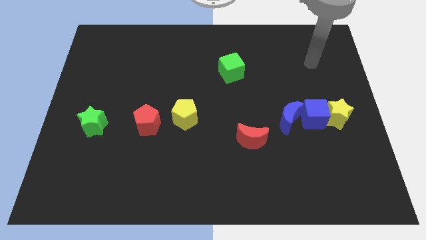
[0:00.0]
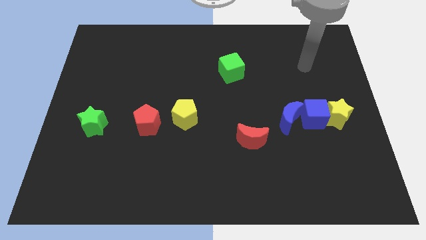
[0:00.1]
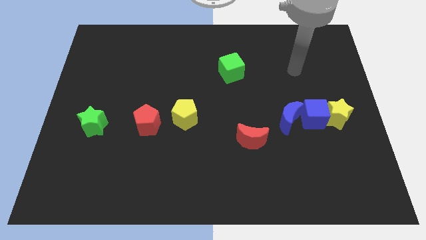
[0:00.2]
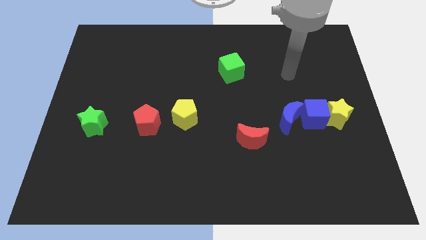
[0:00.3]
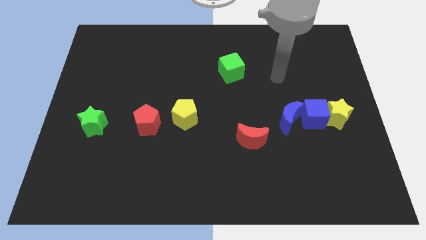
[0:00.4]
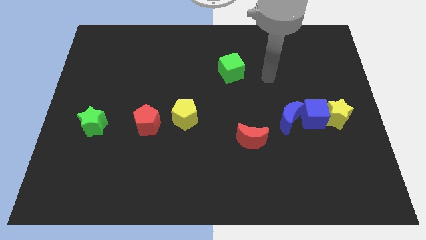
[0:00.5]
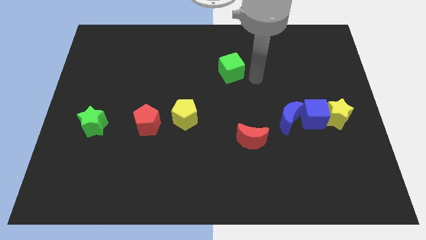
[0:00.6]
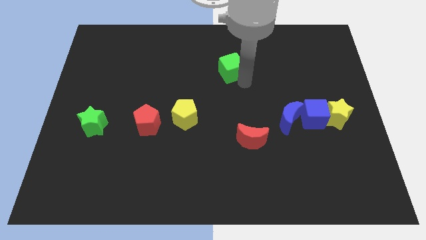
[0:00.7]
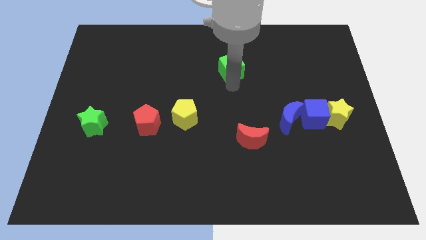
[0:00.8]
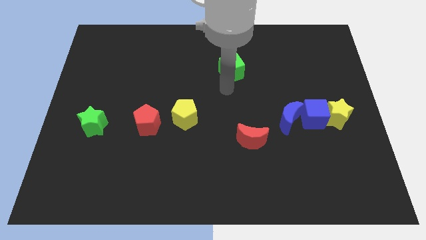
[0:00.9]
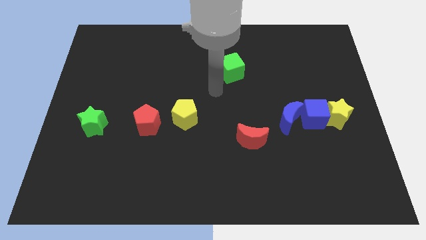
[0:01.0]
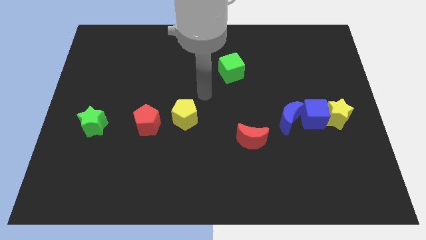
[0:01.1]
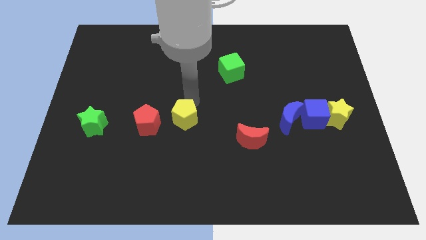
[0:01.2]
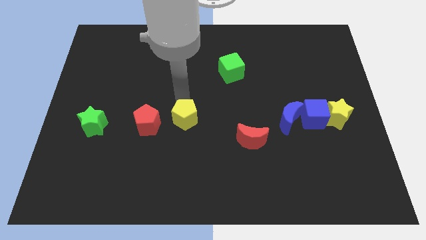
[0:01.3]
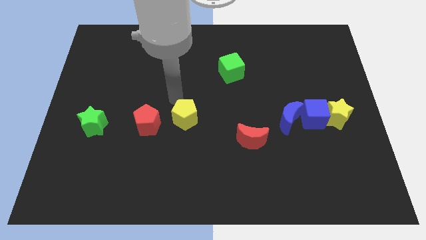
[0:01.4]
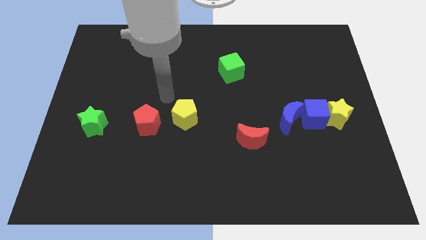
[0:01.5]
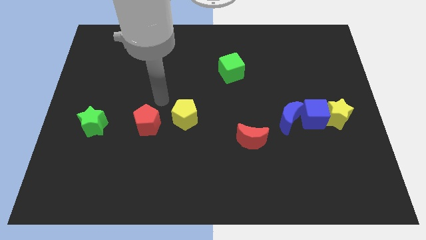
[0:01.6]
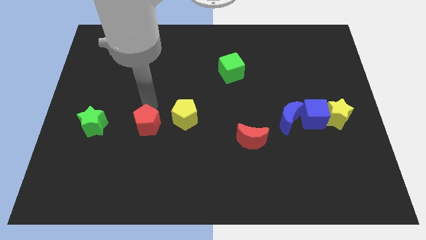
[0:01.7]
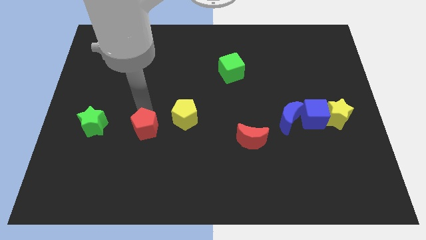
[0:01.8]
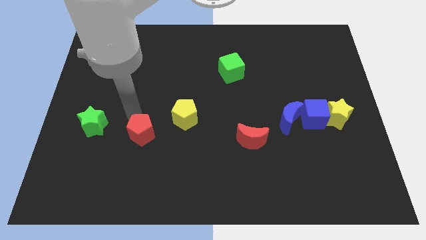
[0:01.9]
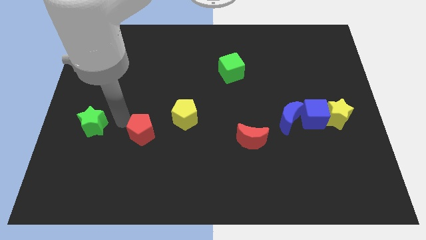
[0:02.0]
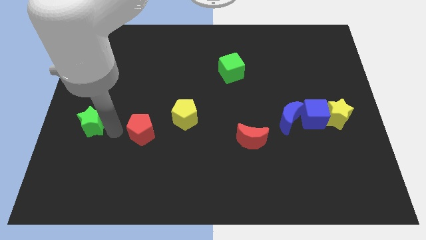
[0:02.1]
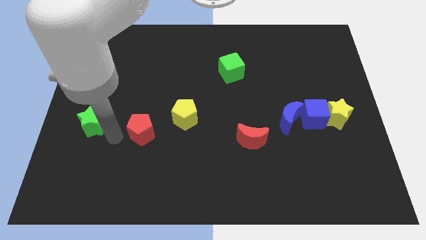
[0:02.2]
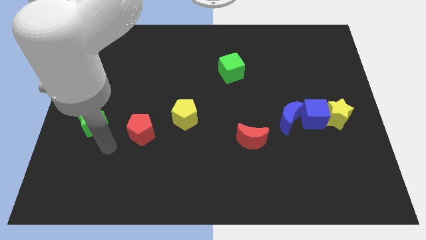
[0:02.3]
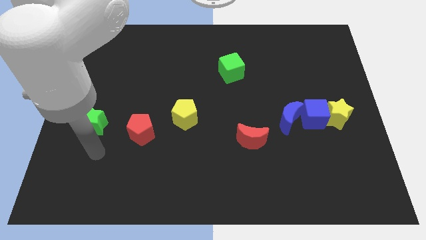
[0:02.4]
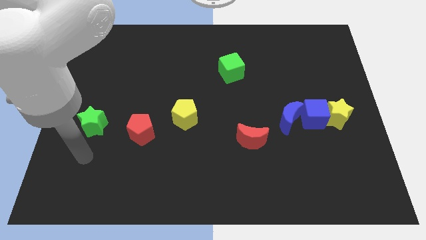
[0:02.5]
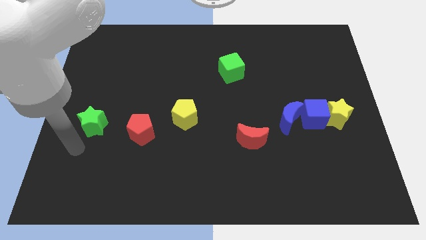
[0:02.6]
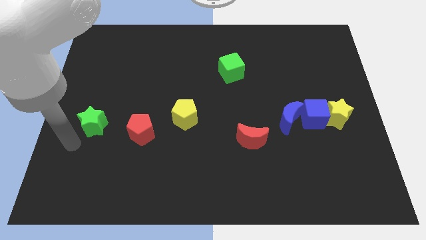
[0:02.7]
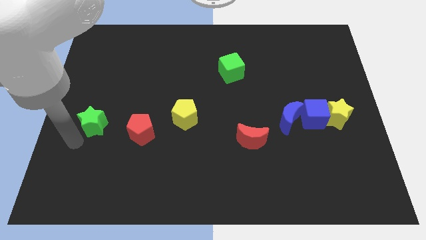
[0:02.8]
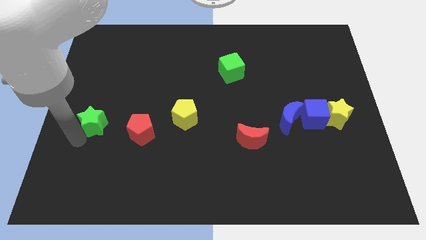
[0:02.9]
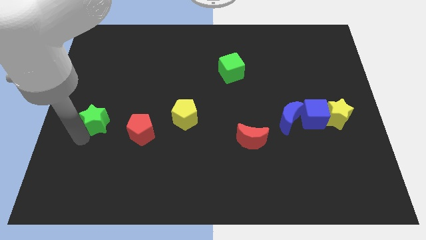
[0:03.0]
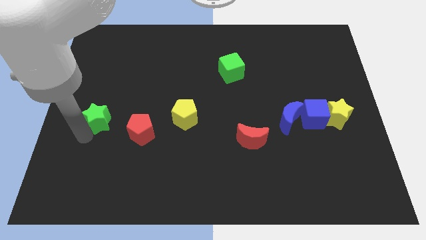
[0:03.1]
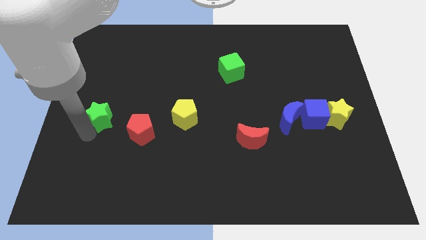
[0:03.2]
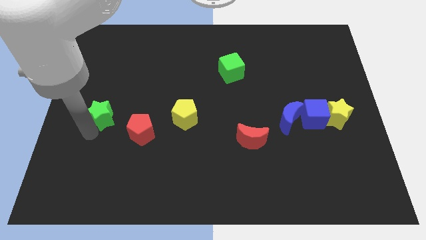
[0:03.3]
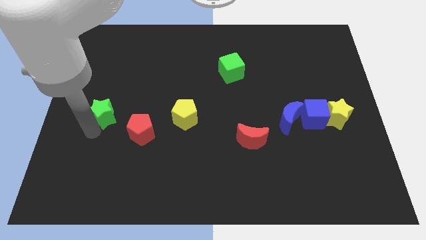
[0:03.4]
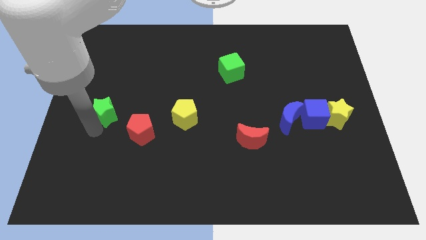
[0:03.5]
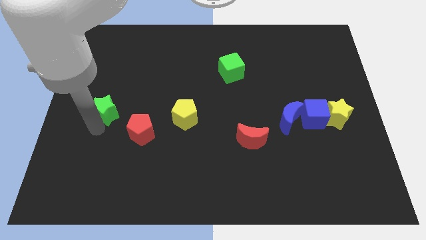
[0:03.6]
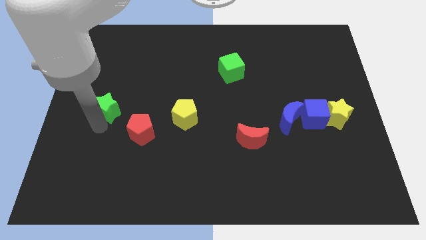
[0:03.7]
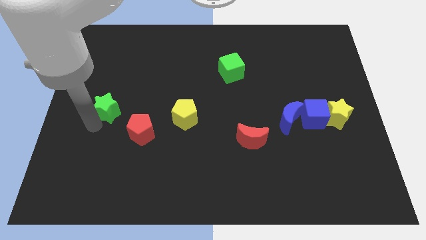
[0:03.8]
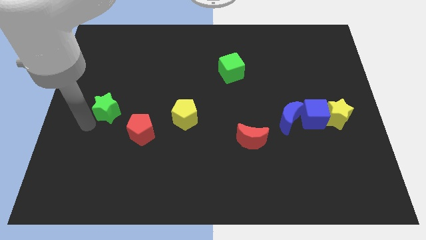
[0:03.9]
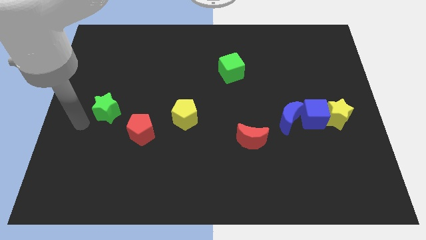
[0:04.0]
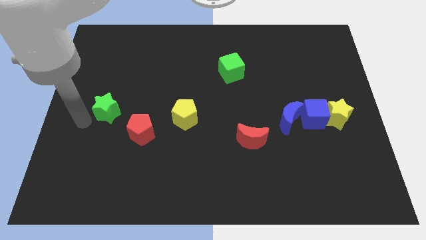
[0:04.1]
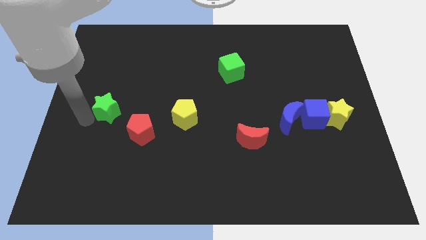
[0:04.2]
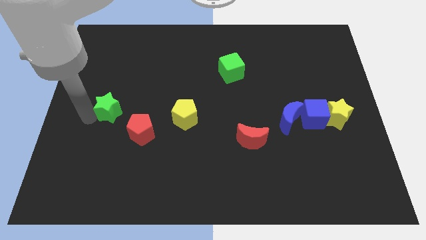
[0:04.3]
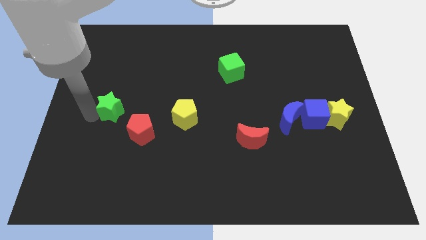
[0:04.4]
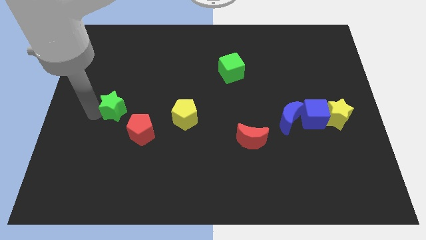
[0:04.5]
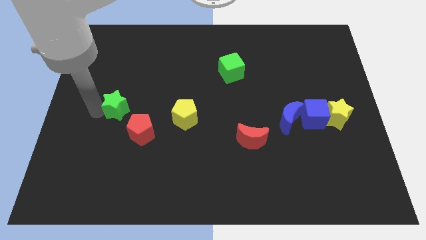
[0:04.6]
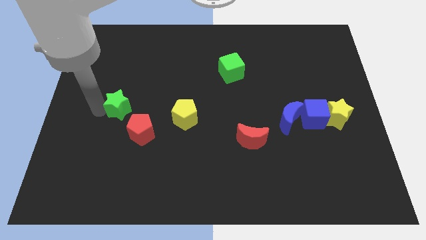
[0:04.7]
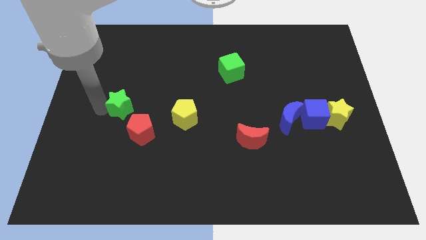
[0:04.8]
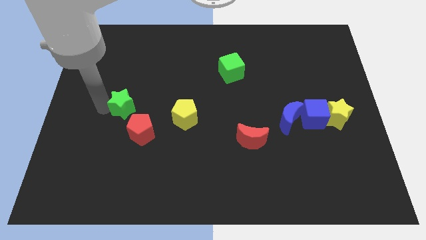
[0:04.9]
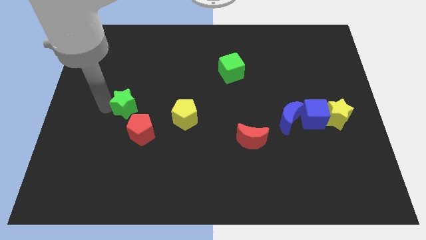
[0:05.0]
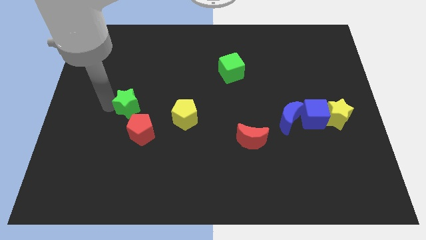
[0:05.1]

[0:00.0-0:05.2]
slide the green star above the red pentagon

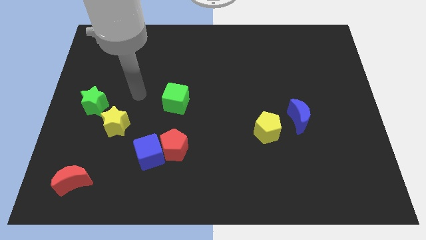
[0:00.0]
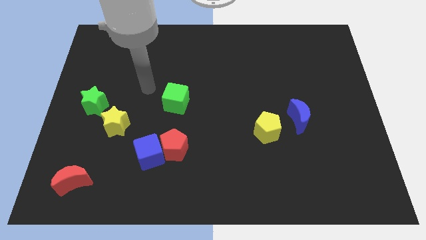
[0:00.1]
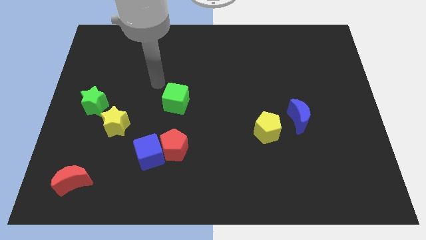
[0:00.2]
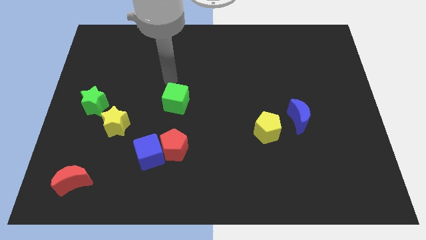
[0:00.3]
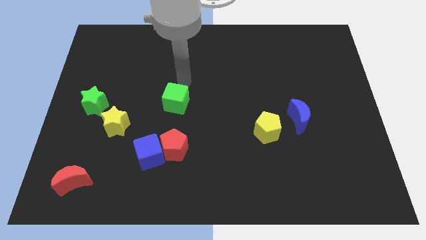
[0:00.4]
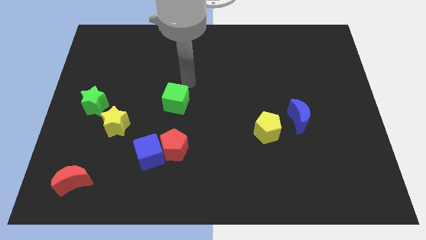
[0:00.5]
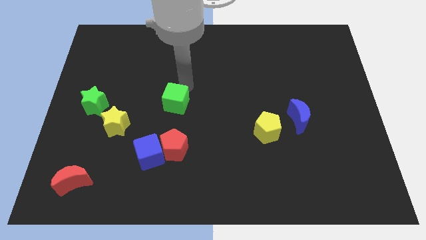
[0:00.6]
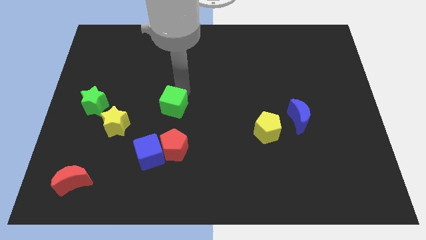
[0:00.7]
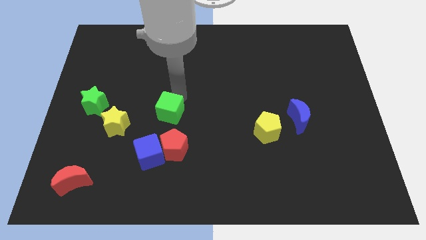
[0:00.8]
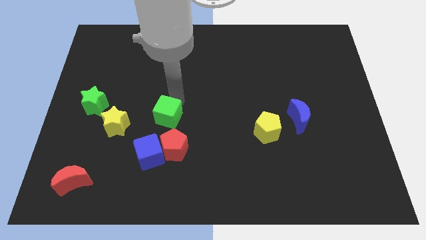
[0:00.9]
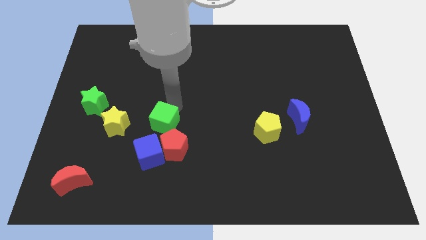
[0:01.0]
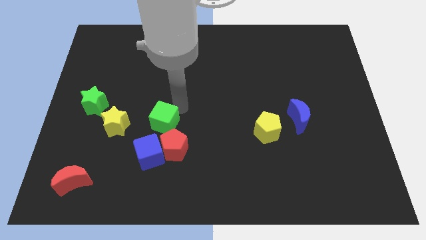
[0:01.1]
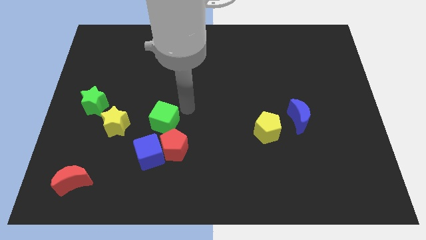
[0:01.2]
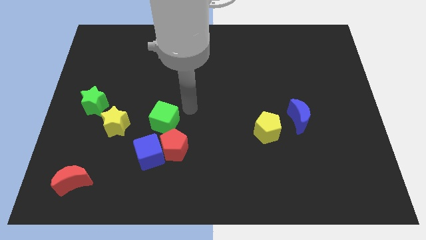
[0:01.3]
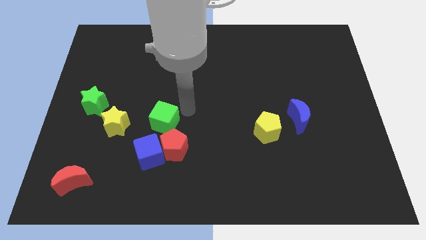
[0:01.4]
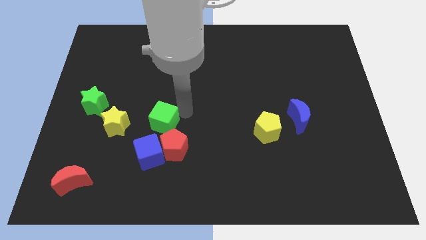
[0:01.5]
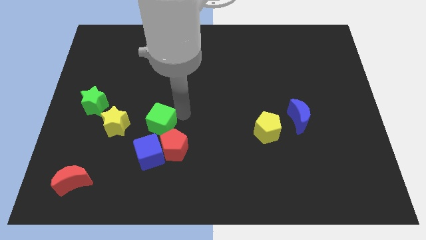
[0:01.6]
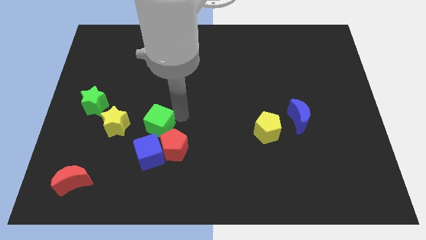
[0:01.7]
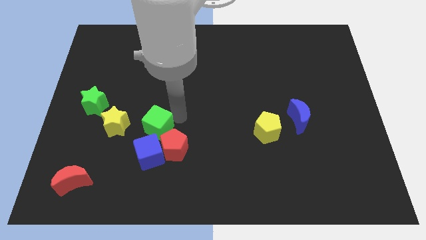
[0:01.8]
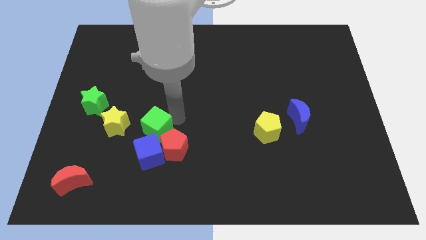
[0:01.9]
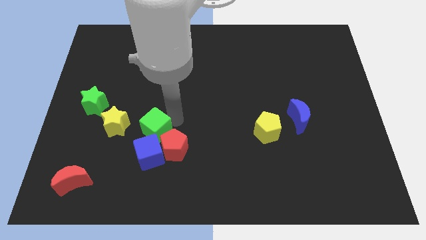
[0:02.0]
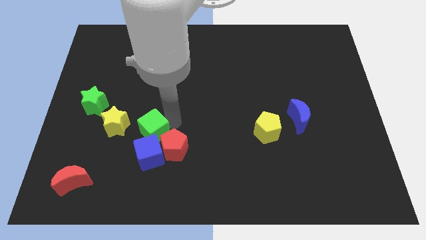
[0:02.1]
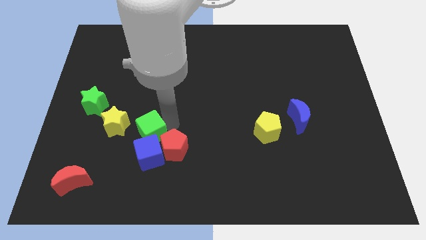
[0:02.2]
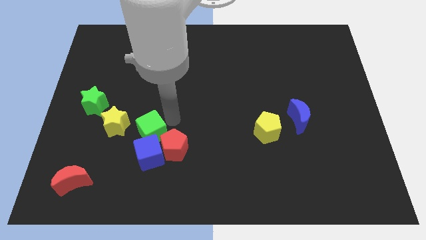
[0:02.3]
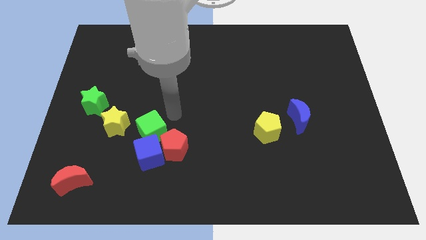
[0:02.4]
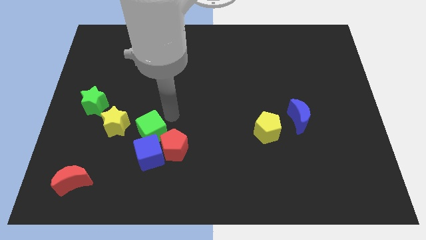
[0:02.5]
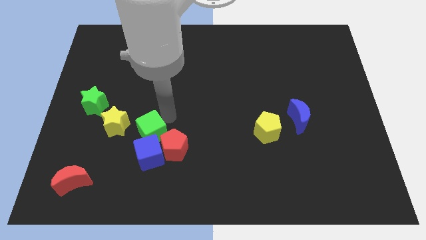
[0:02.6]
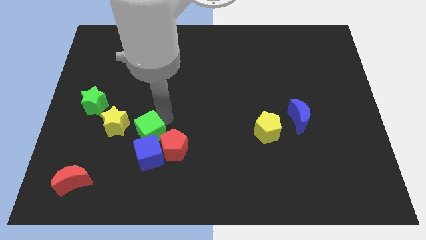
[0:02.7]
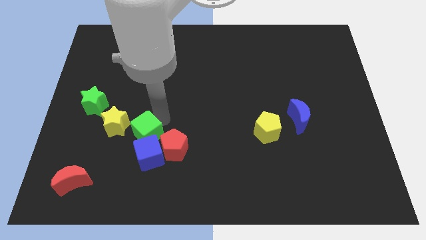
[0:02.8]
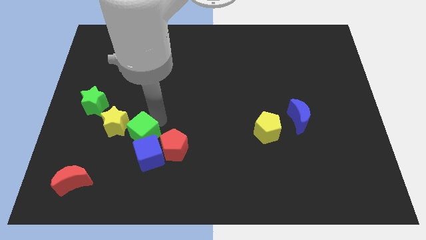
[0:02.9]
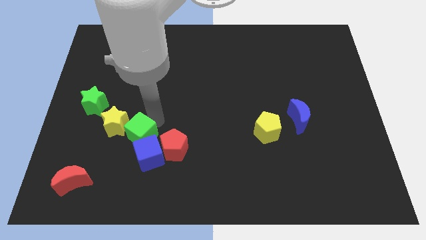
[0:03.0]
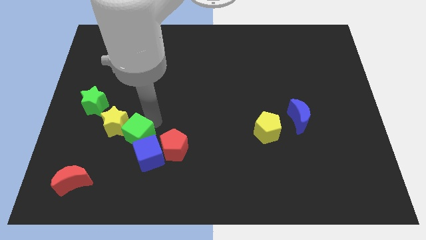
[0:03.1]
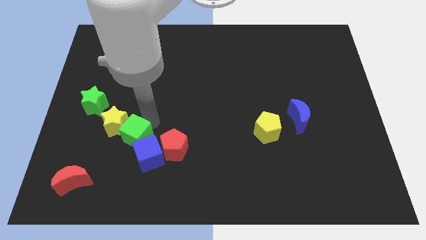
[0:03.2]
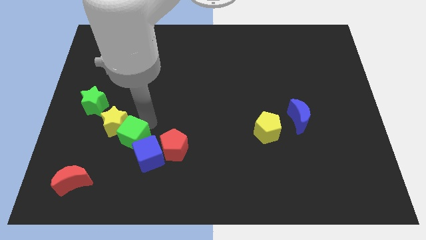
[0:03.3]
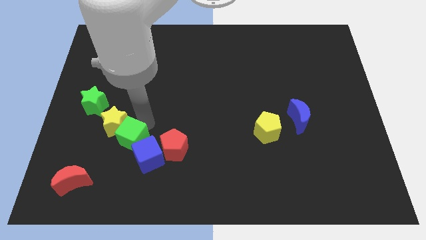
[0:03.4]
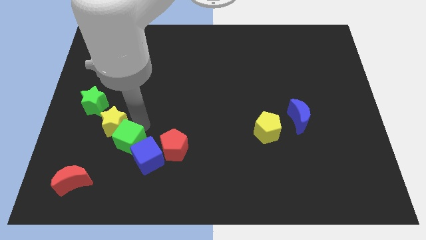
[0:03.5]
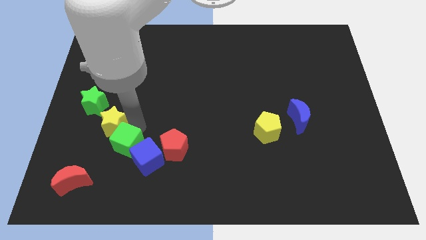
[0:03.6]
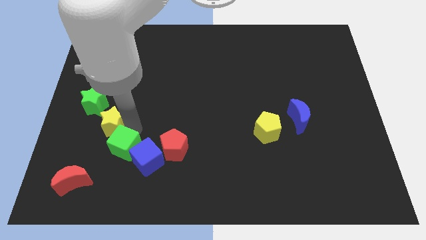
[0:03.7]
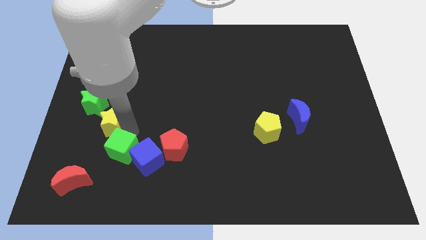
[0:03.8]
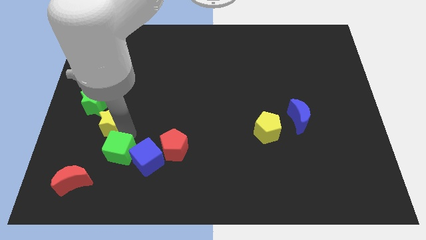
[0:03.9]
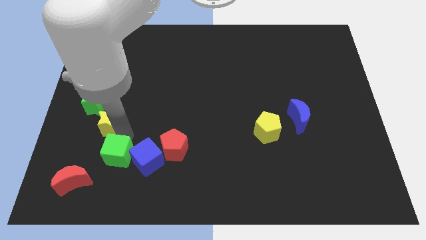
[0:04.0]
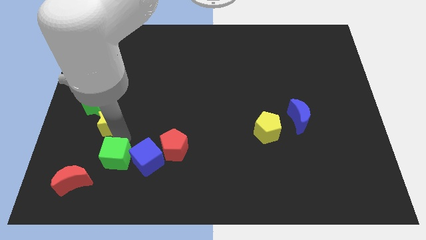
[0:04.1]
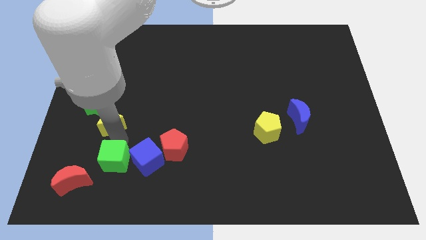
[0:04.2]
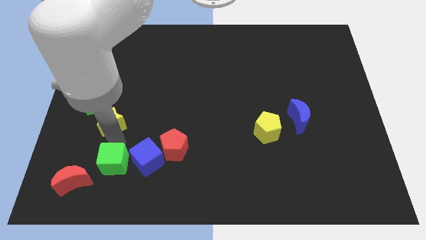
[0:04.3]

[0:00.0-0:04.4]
slide the green cube just right of the red moon
